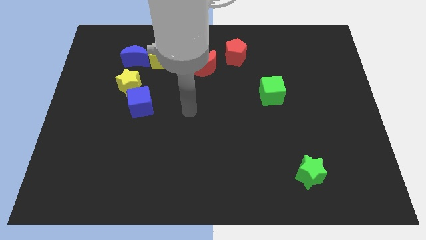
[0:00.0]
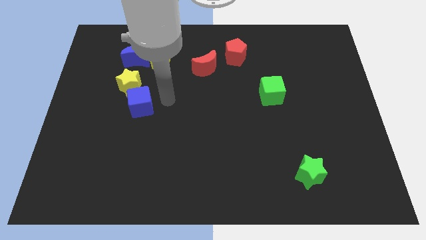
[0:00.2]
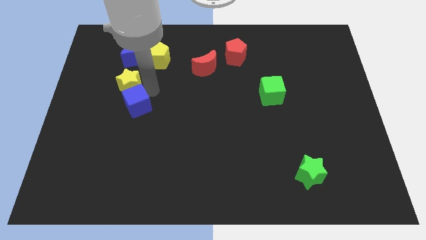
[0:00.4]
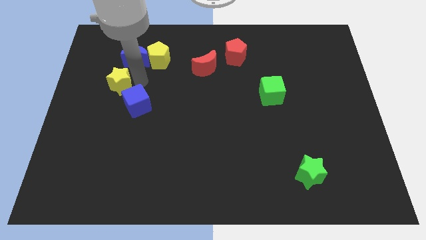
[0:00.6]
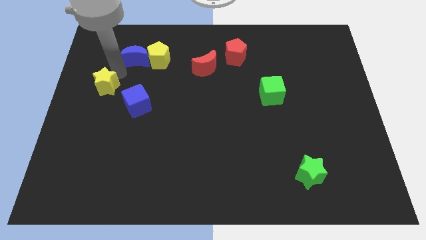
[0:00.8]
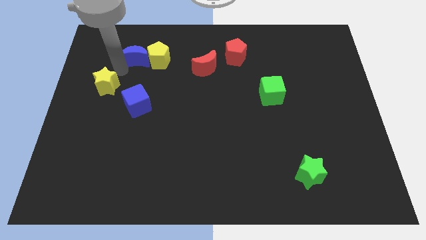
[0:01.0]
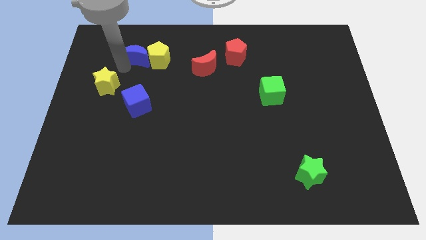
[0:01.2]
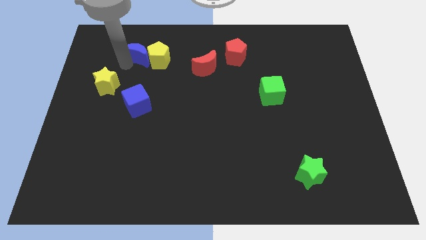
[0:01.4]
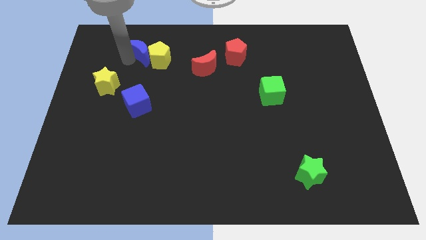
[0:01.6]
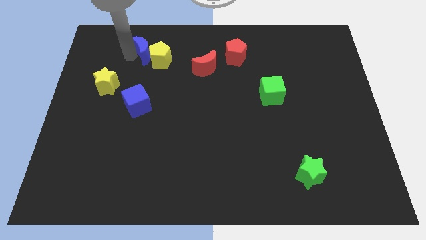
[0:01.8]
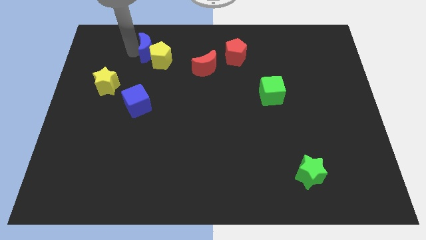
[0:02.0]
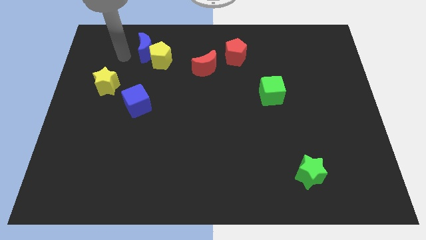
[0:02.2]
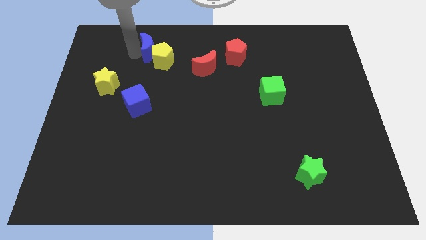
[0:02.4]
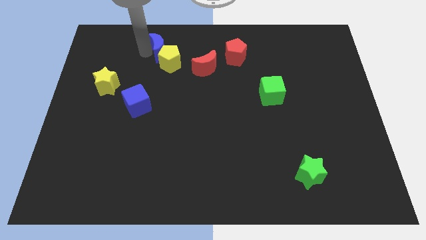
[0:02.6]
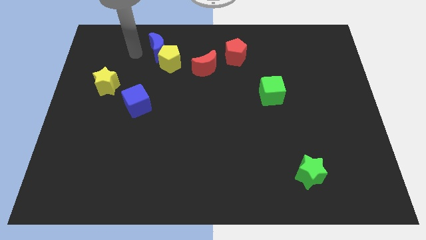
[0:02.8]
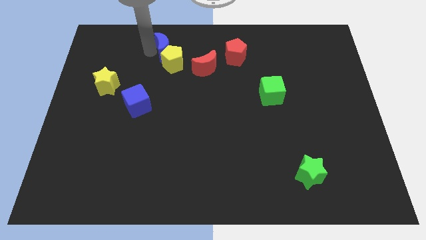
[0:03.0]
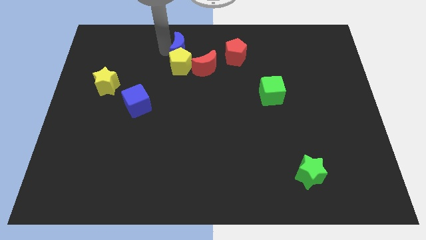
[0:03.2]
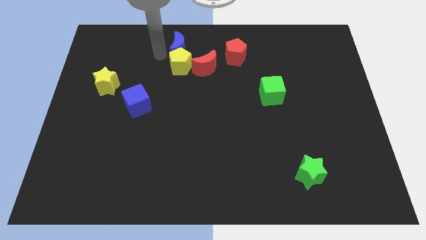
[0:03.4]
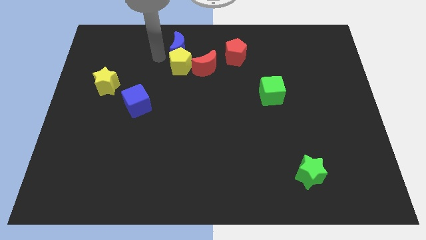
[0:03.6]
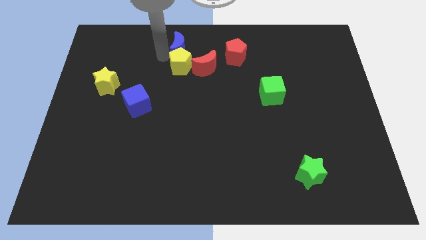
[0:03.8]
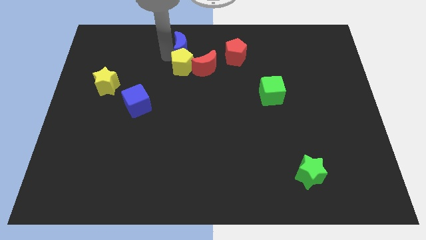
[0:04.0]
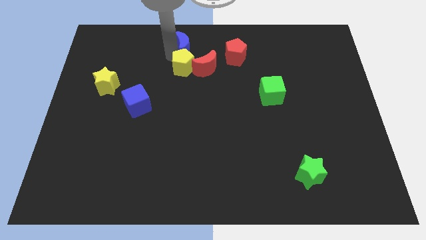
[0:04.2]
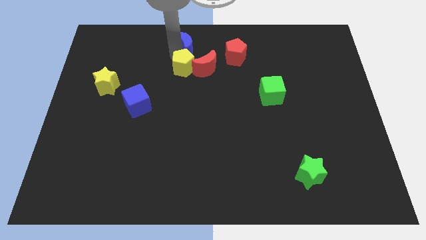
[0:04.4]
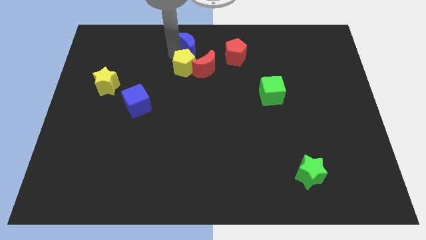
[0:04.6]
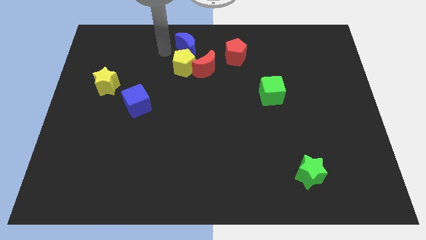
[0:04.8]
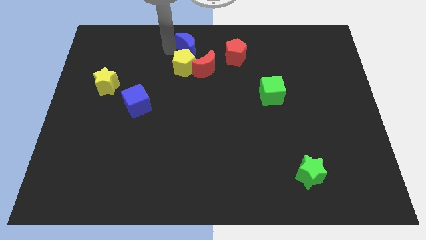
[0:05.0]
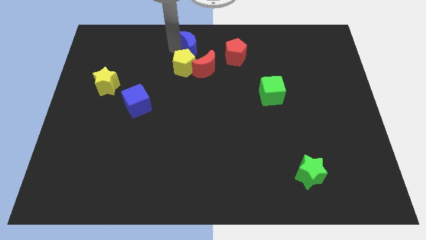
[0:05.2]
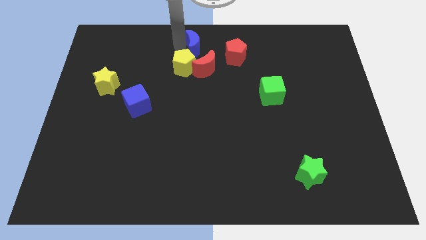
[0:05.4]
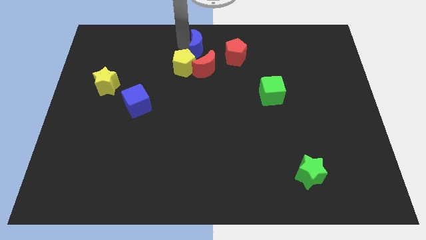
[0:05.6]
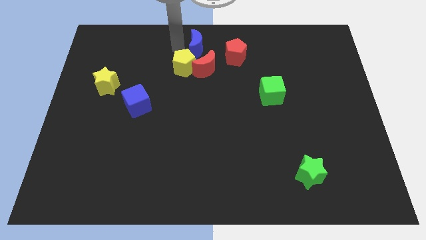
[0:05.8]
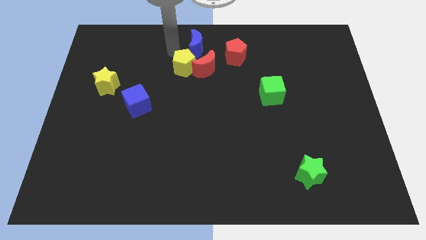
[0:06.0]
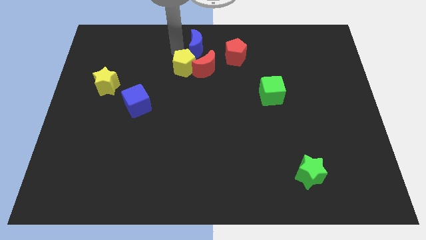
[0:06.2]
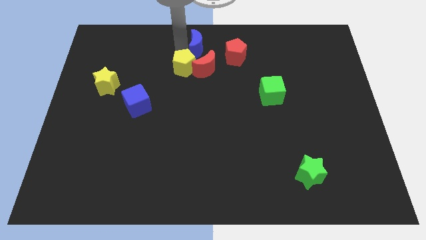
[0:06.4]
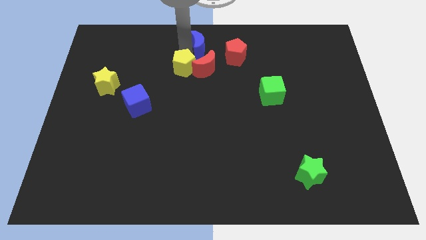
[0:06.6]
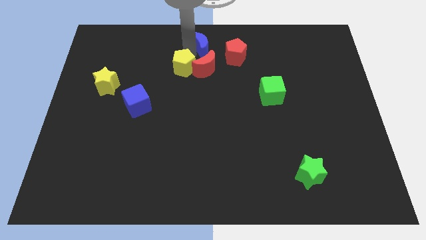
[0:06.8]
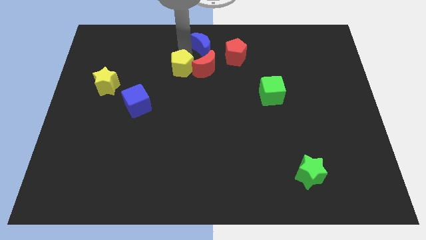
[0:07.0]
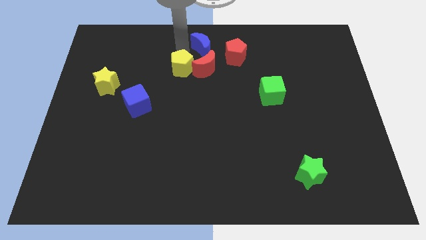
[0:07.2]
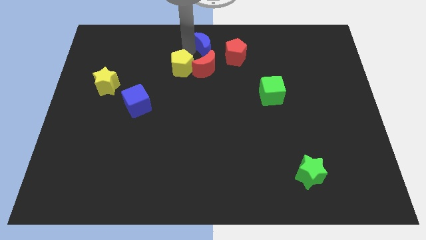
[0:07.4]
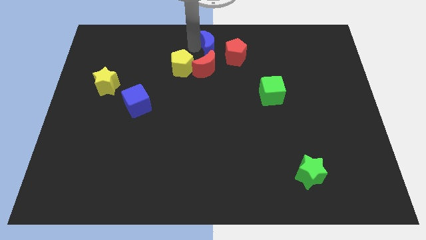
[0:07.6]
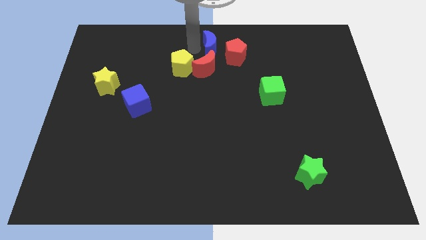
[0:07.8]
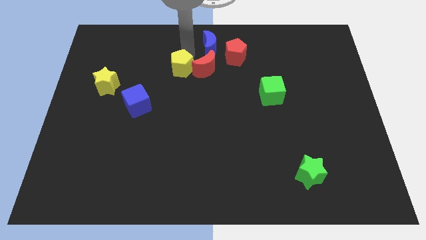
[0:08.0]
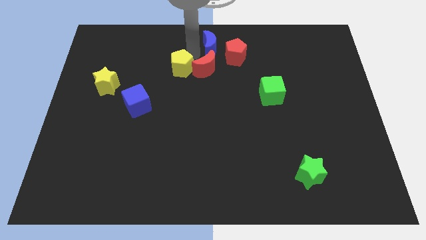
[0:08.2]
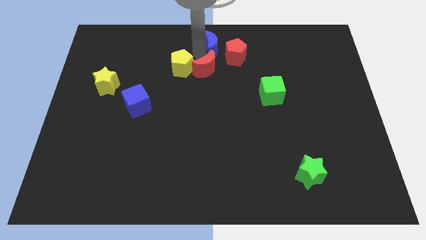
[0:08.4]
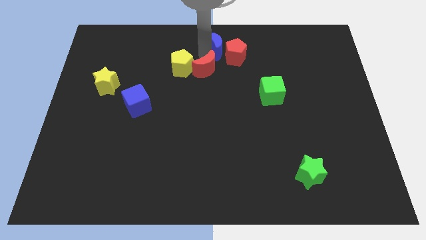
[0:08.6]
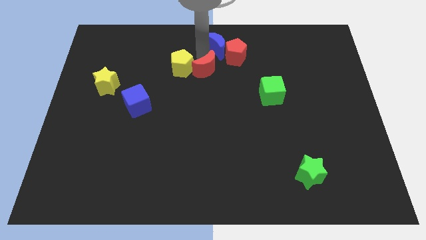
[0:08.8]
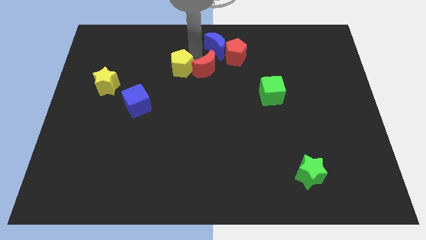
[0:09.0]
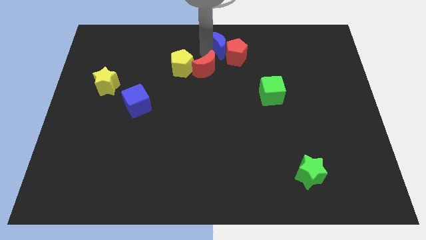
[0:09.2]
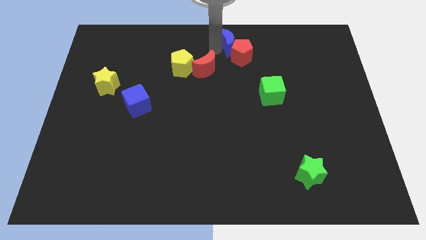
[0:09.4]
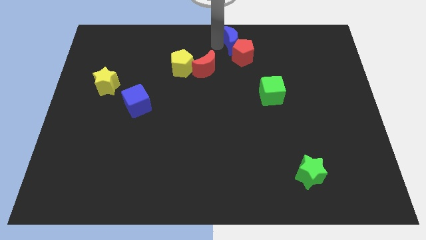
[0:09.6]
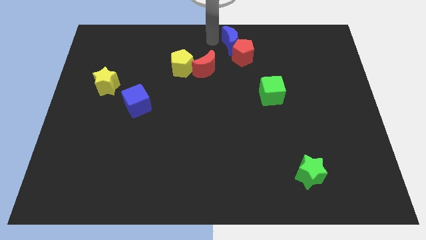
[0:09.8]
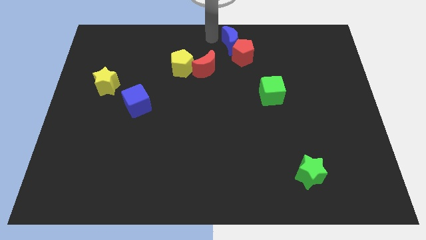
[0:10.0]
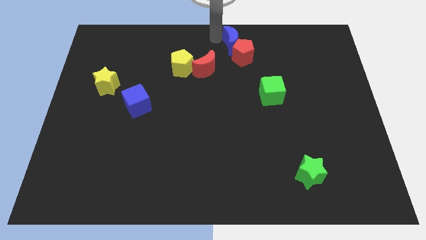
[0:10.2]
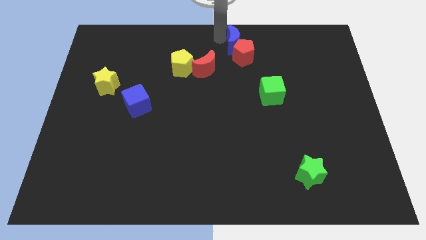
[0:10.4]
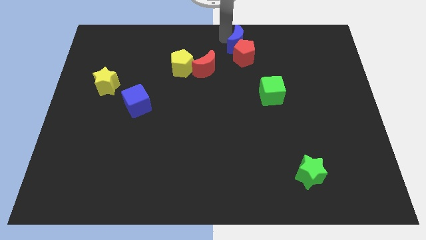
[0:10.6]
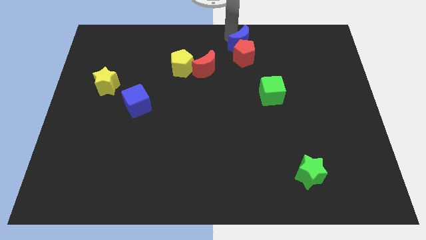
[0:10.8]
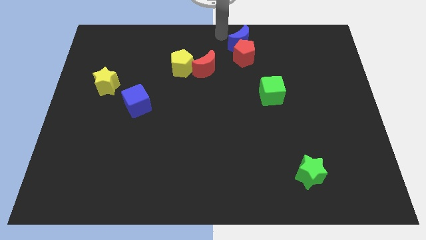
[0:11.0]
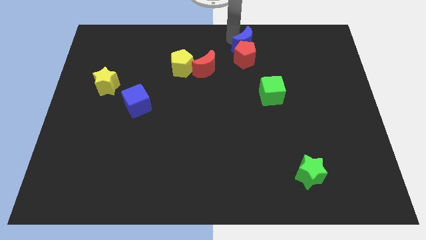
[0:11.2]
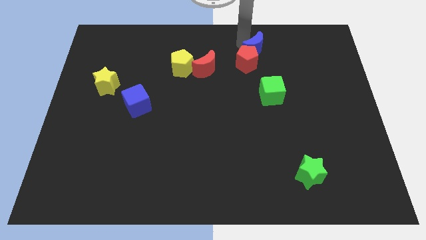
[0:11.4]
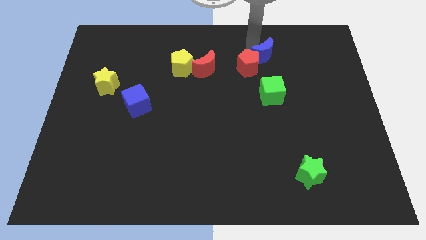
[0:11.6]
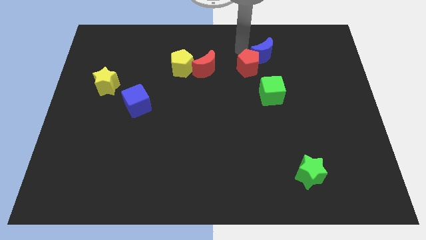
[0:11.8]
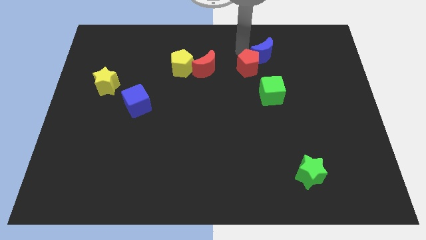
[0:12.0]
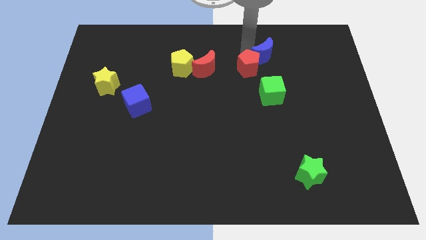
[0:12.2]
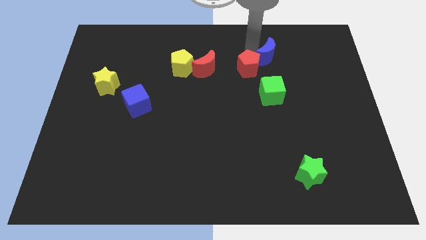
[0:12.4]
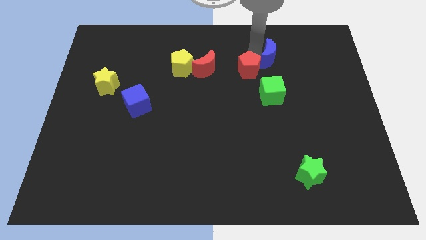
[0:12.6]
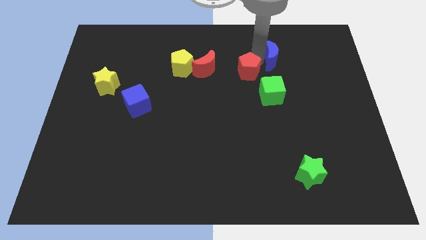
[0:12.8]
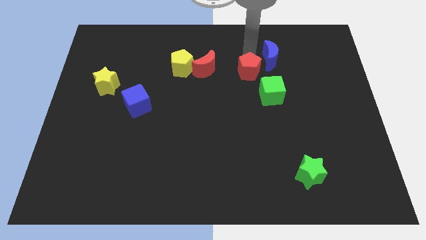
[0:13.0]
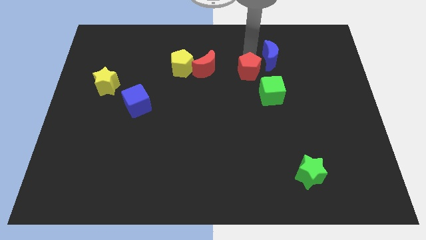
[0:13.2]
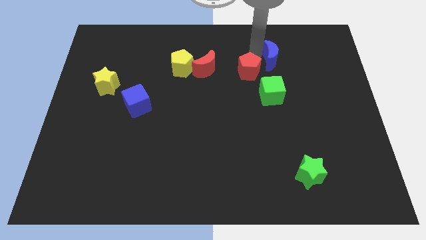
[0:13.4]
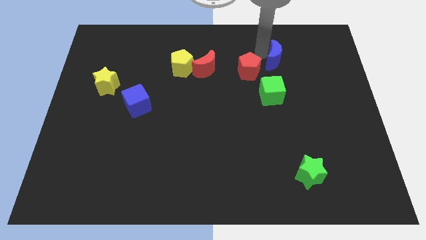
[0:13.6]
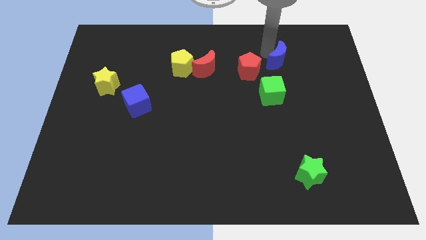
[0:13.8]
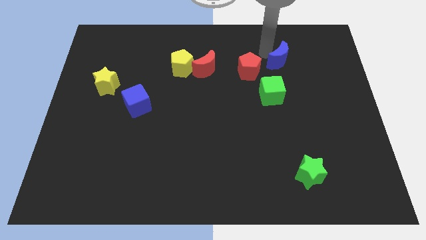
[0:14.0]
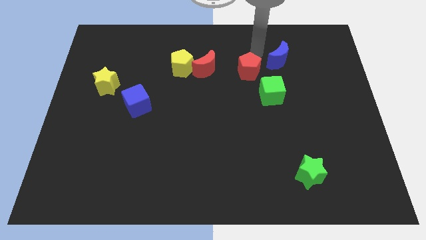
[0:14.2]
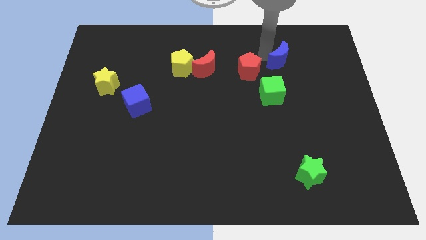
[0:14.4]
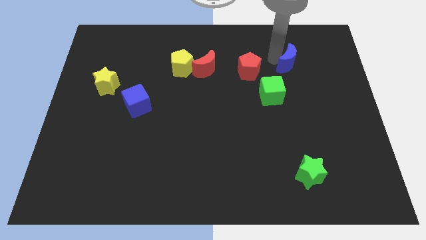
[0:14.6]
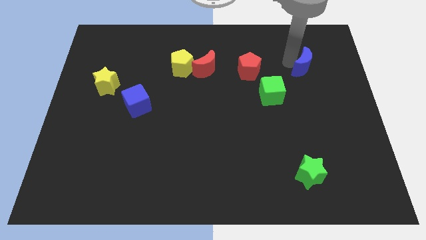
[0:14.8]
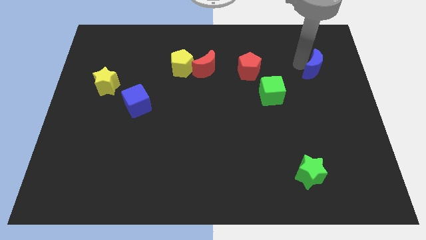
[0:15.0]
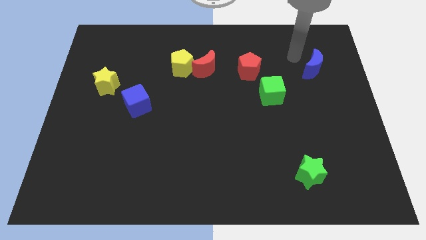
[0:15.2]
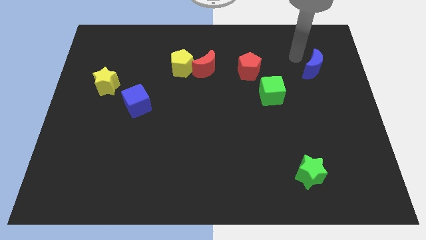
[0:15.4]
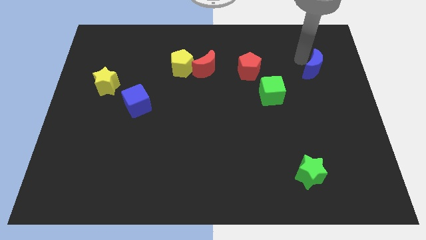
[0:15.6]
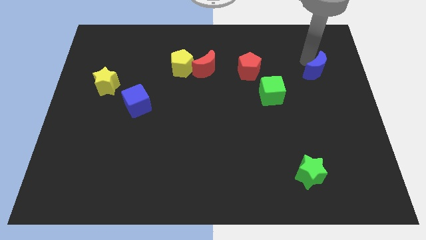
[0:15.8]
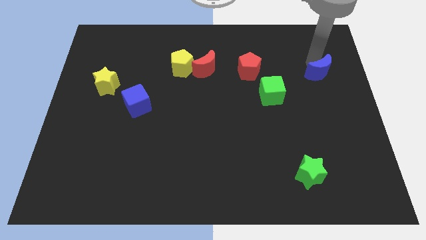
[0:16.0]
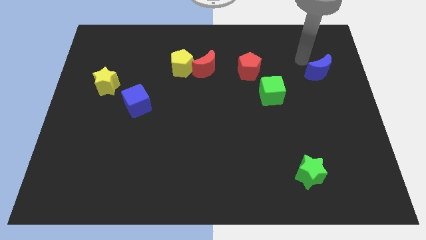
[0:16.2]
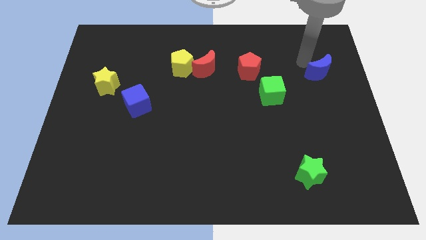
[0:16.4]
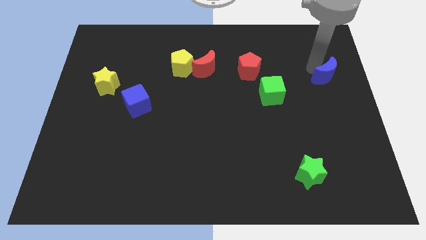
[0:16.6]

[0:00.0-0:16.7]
slide the blue moon to the right side of the board
